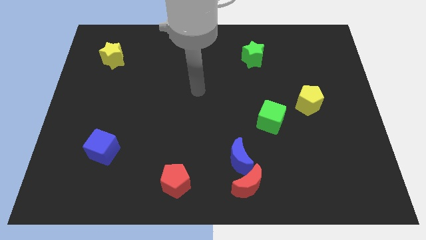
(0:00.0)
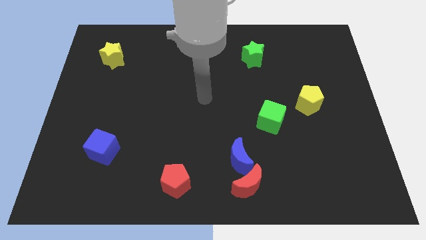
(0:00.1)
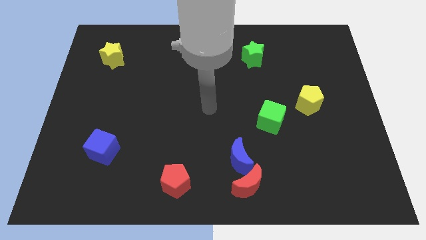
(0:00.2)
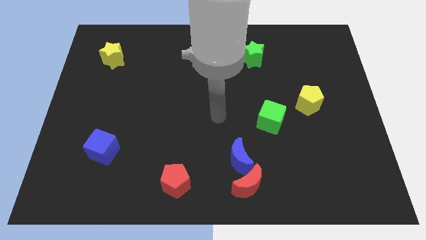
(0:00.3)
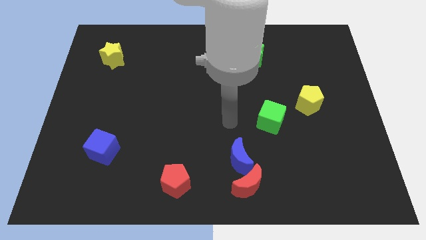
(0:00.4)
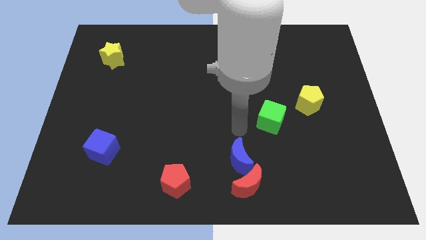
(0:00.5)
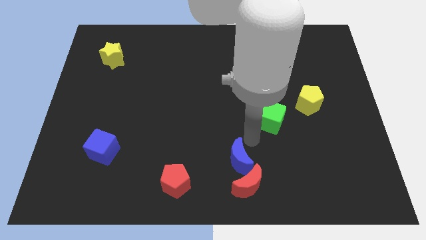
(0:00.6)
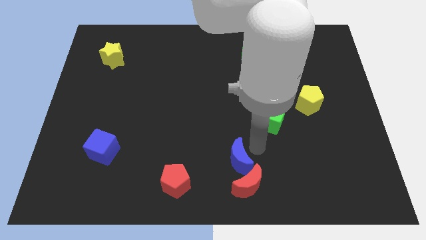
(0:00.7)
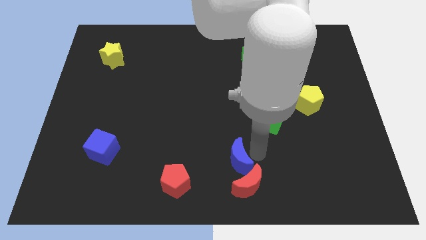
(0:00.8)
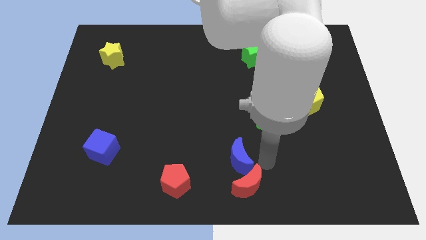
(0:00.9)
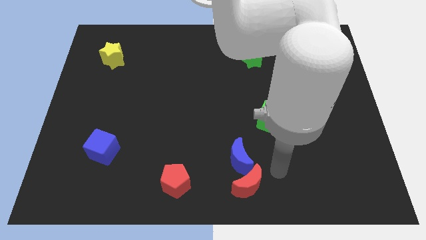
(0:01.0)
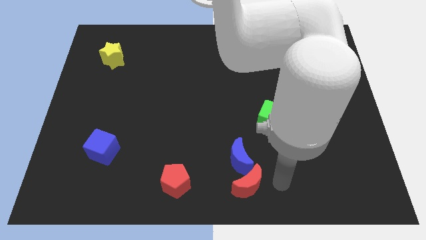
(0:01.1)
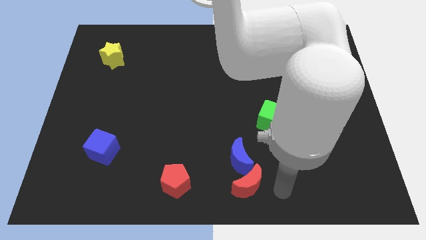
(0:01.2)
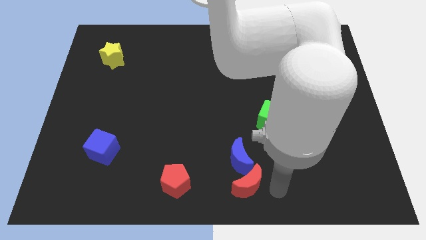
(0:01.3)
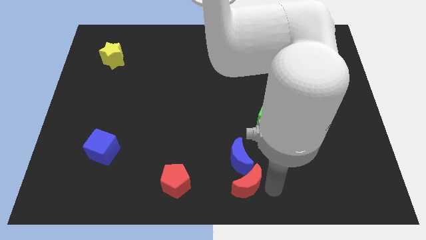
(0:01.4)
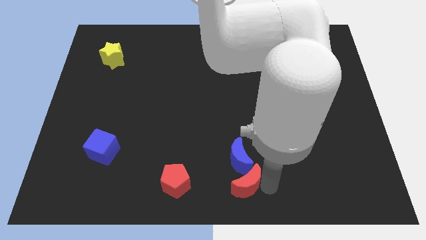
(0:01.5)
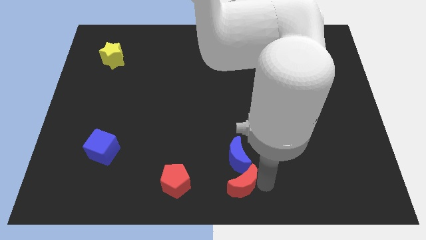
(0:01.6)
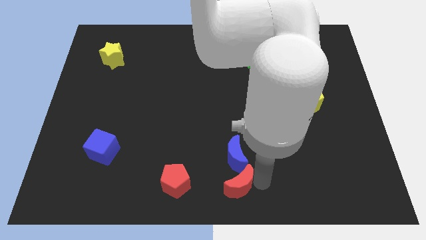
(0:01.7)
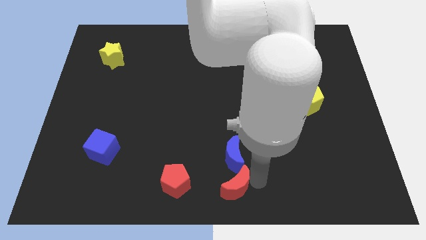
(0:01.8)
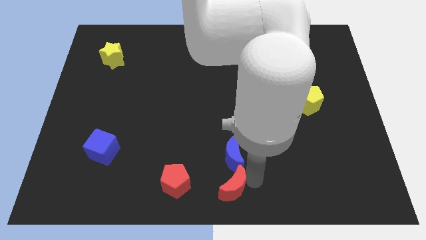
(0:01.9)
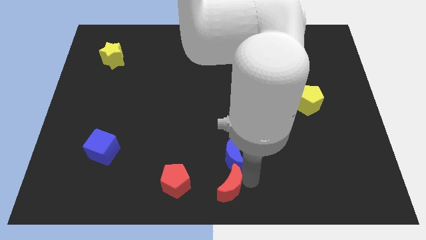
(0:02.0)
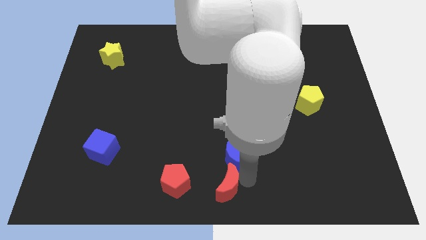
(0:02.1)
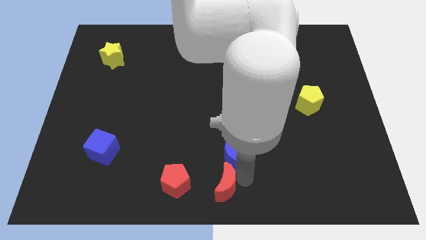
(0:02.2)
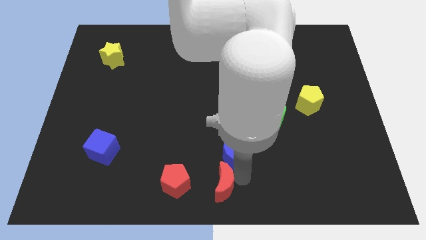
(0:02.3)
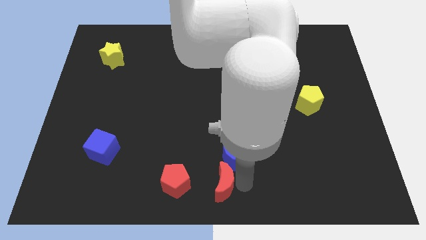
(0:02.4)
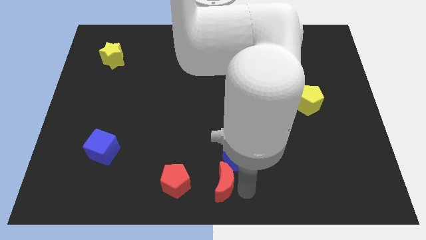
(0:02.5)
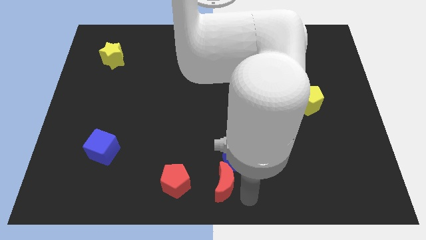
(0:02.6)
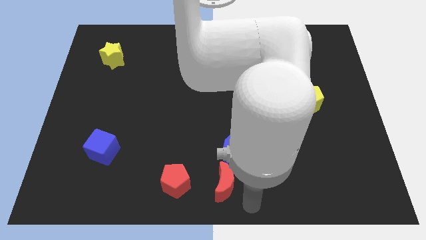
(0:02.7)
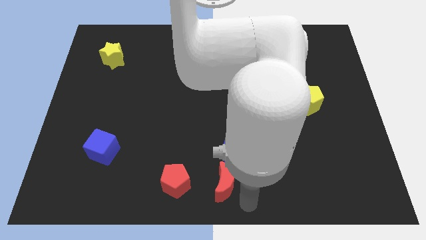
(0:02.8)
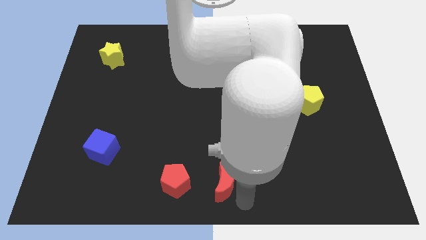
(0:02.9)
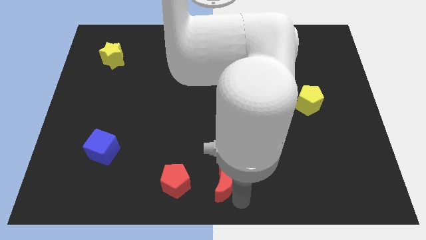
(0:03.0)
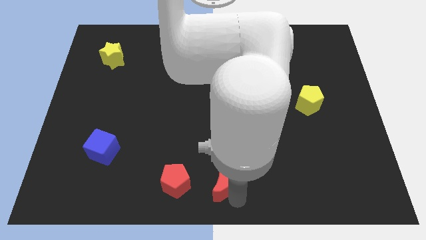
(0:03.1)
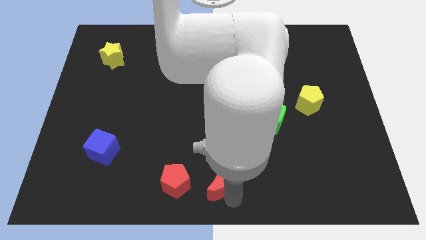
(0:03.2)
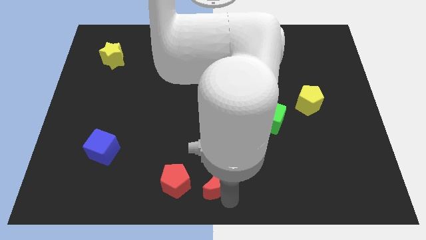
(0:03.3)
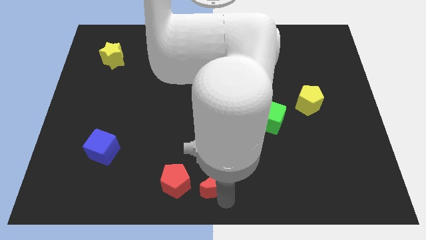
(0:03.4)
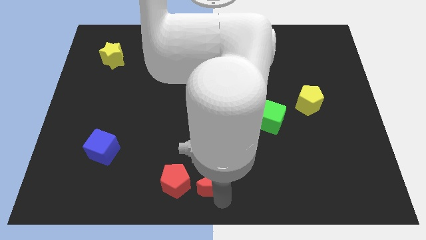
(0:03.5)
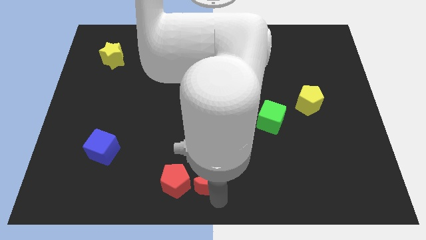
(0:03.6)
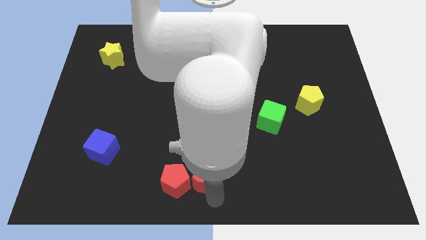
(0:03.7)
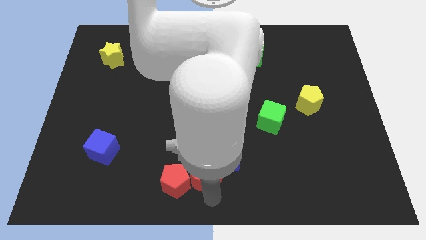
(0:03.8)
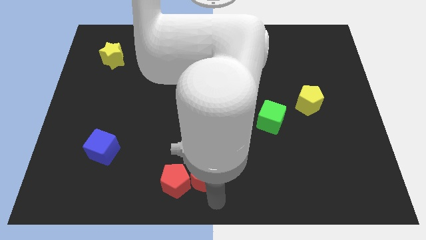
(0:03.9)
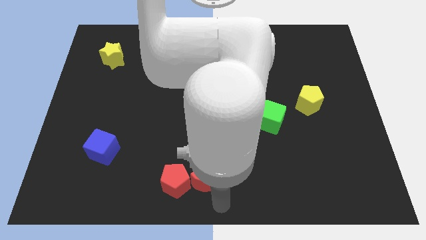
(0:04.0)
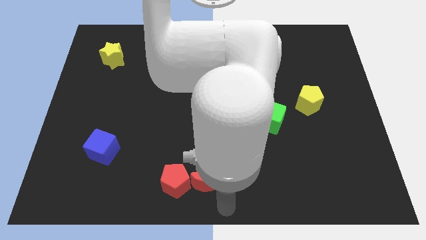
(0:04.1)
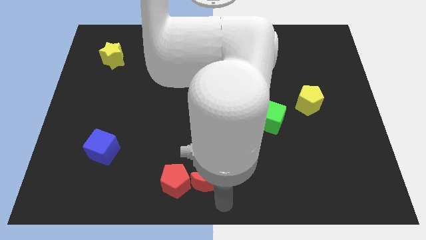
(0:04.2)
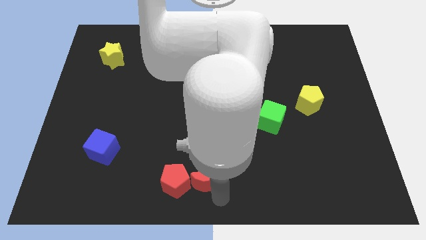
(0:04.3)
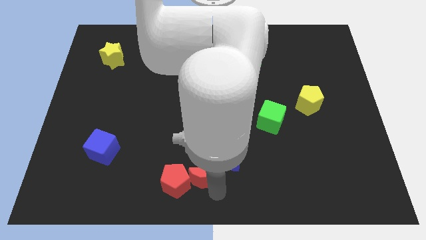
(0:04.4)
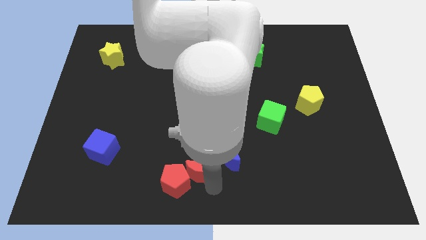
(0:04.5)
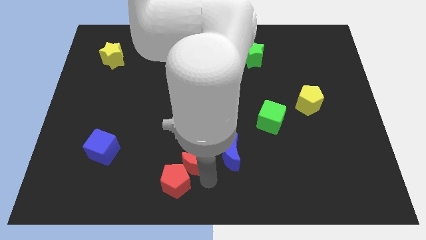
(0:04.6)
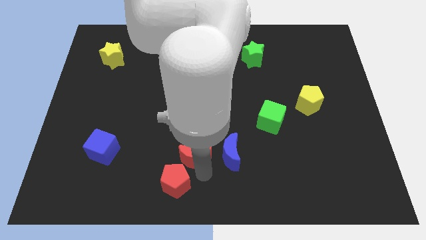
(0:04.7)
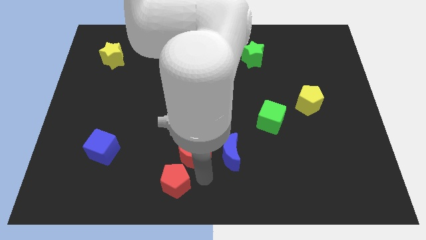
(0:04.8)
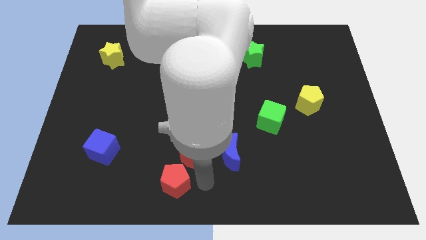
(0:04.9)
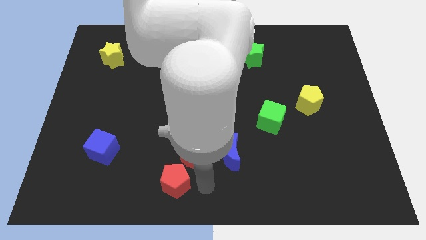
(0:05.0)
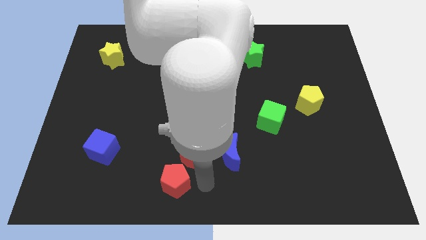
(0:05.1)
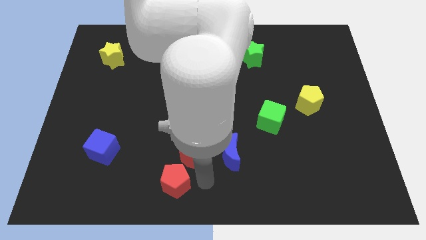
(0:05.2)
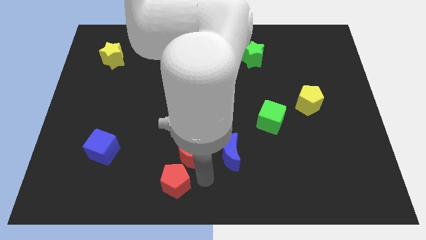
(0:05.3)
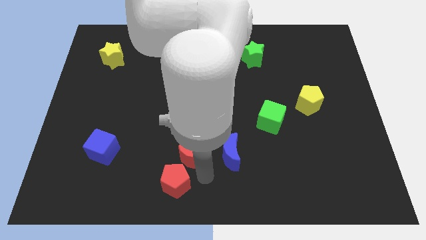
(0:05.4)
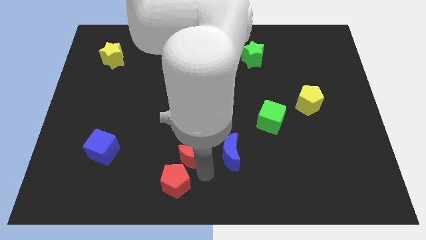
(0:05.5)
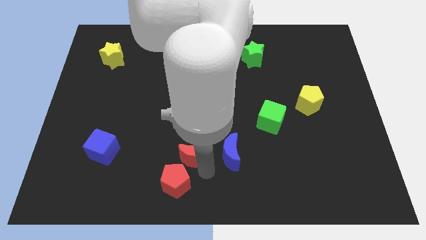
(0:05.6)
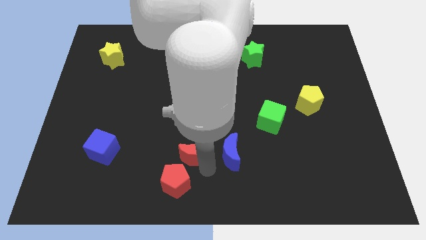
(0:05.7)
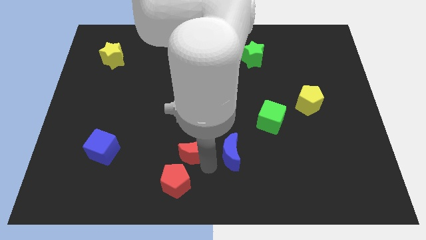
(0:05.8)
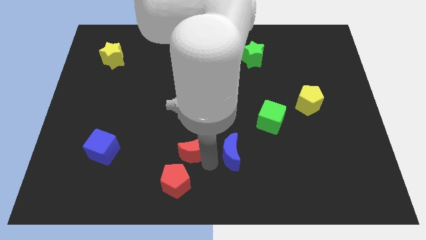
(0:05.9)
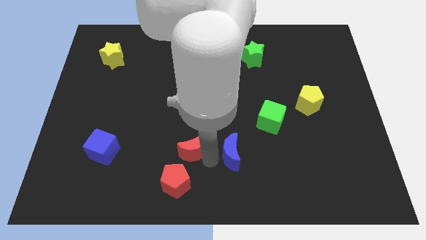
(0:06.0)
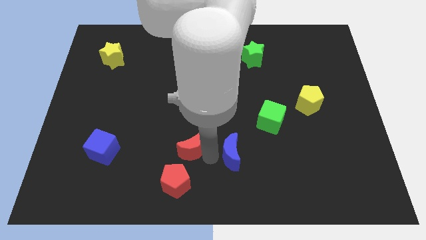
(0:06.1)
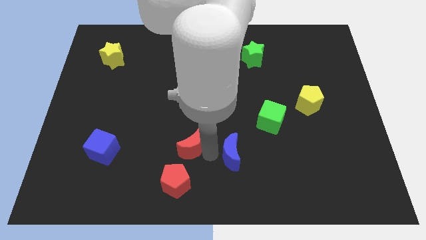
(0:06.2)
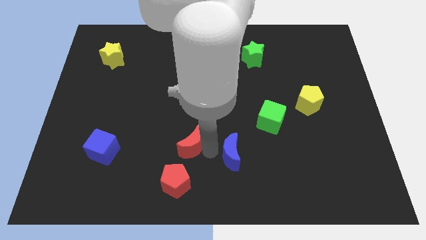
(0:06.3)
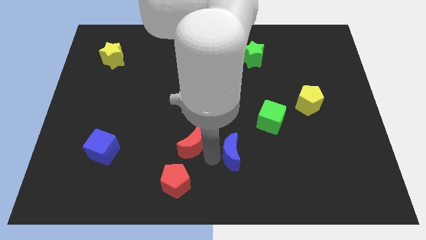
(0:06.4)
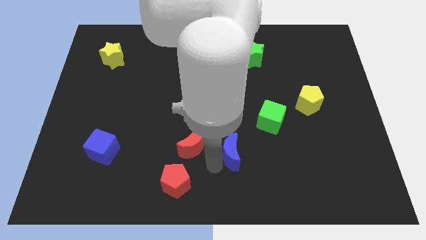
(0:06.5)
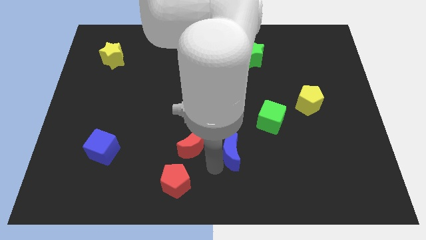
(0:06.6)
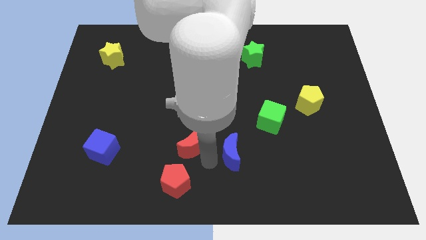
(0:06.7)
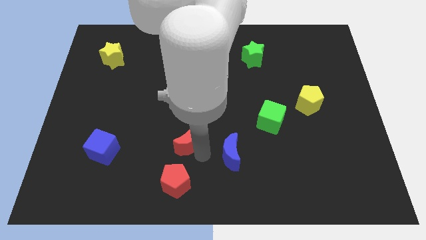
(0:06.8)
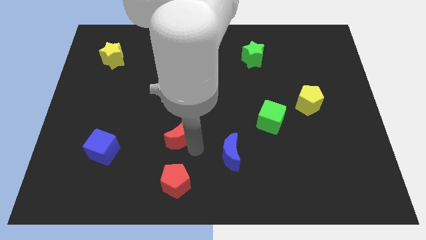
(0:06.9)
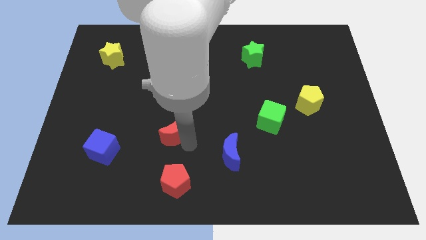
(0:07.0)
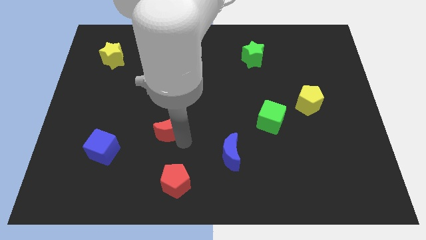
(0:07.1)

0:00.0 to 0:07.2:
move the red moon up and to the left

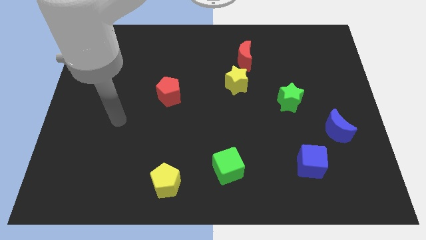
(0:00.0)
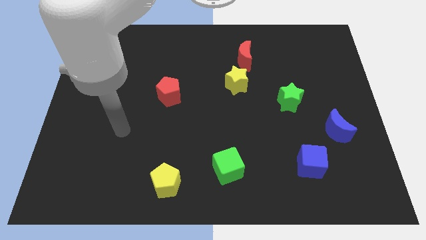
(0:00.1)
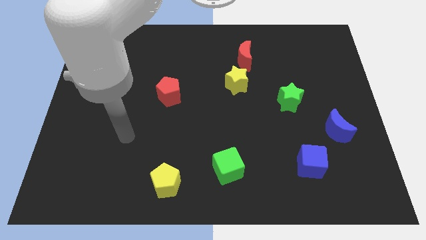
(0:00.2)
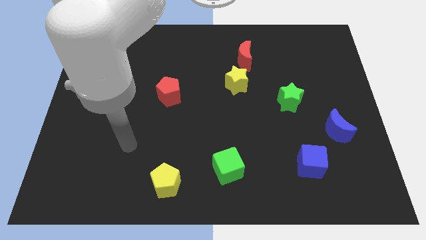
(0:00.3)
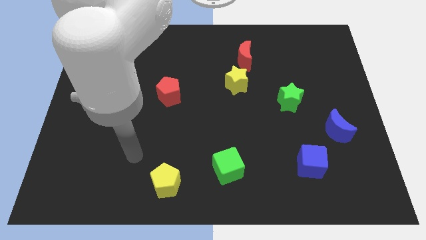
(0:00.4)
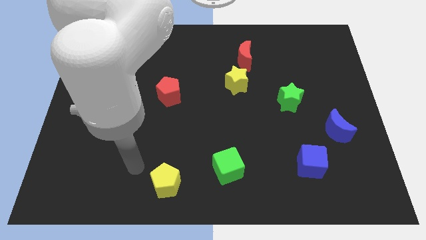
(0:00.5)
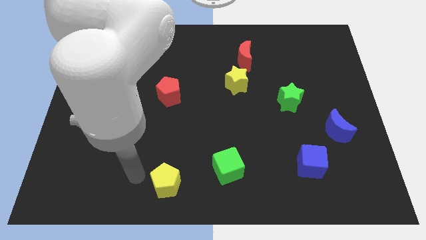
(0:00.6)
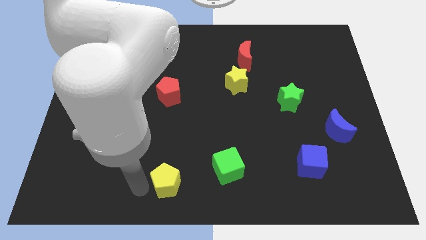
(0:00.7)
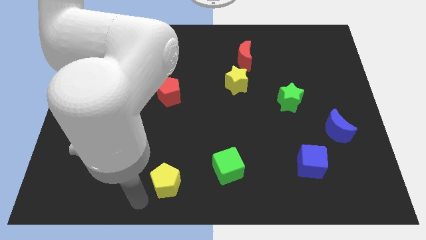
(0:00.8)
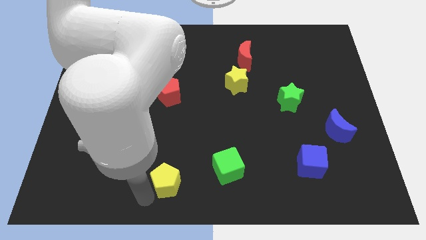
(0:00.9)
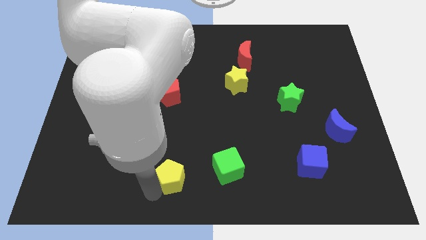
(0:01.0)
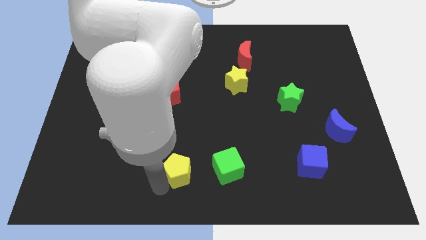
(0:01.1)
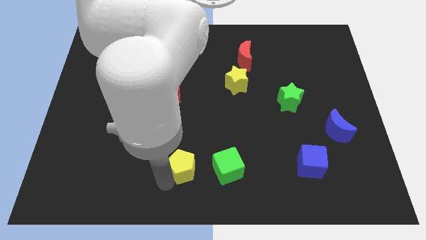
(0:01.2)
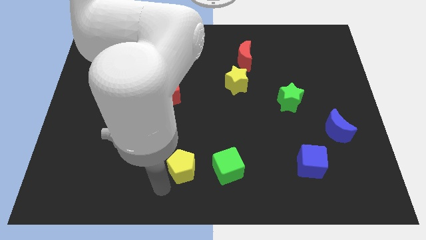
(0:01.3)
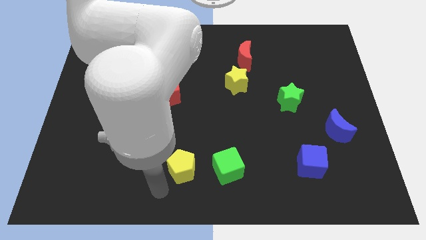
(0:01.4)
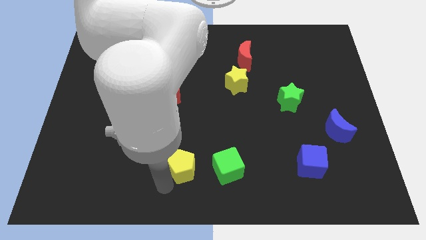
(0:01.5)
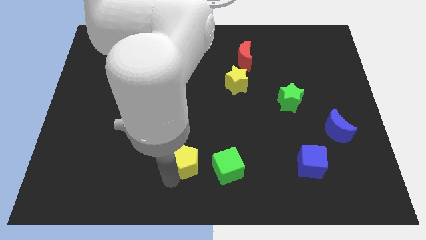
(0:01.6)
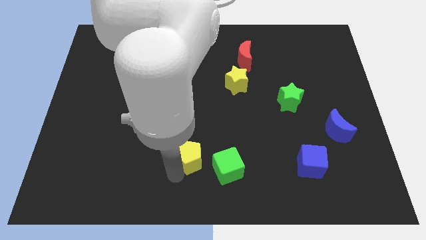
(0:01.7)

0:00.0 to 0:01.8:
push the yellow pentagon diagonally upwards and to the right a little
